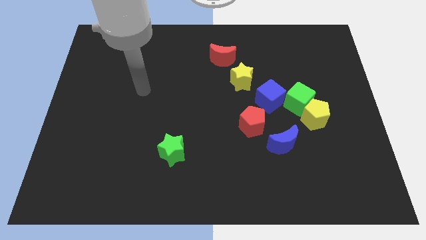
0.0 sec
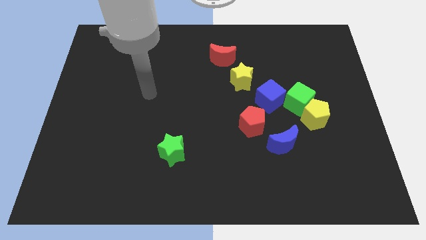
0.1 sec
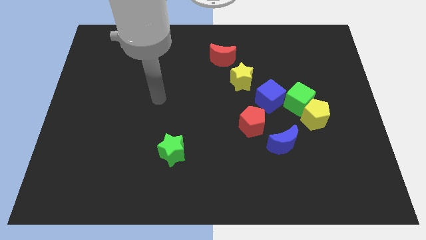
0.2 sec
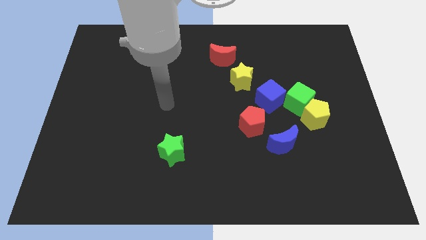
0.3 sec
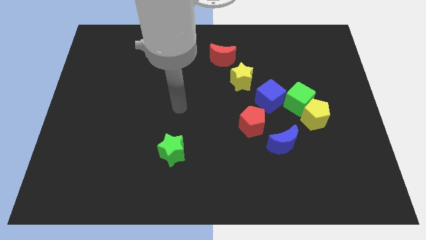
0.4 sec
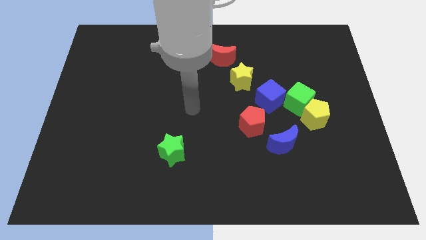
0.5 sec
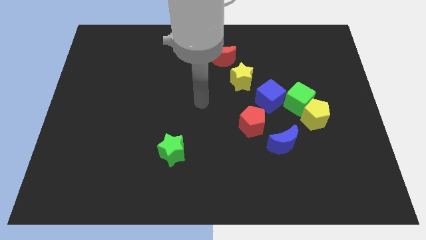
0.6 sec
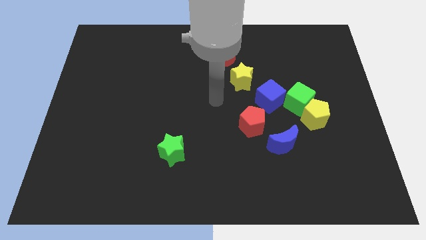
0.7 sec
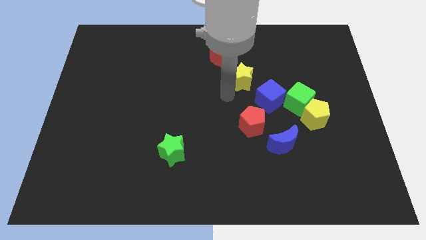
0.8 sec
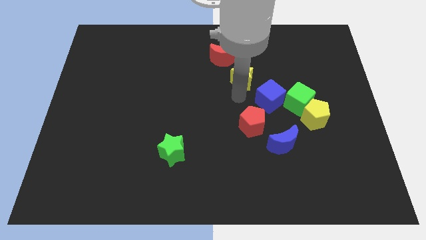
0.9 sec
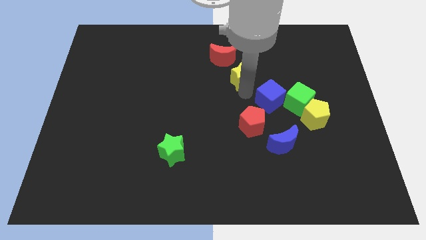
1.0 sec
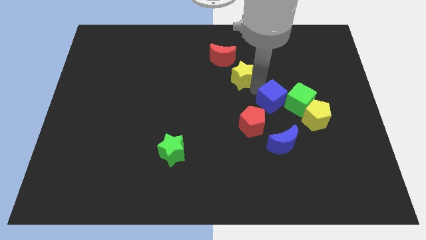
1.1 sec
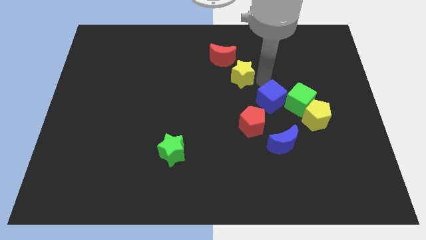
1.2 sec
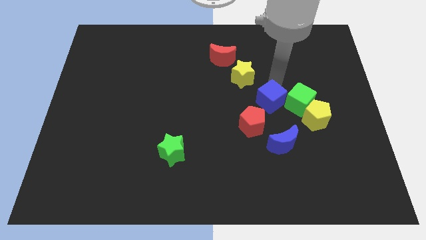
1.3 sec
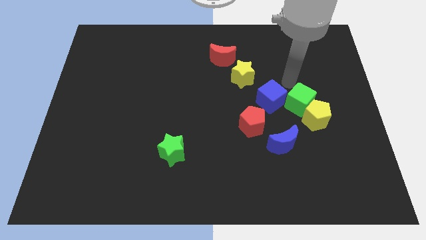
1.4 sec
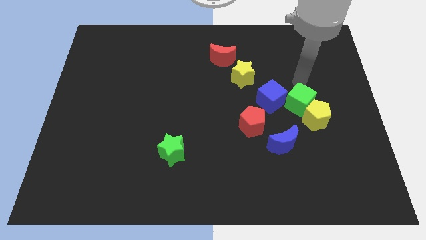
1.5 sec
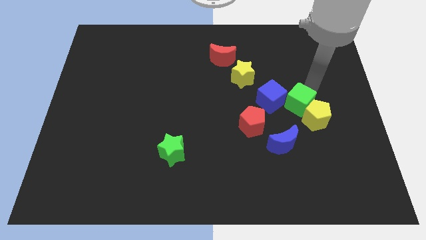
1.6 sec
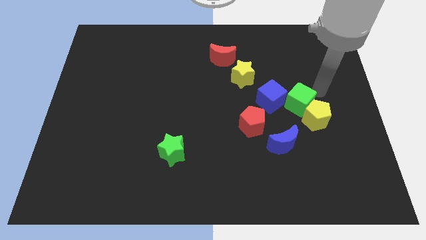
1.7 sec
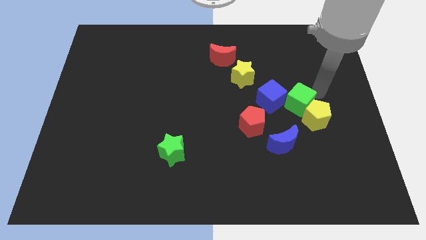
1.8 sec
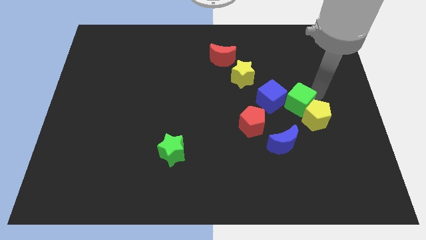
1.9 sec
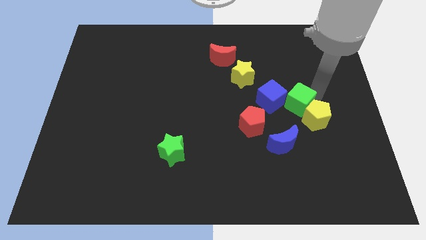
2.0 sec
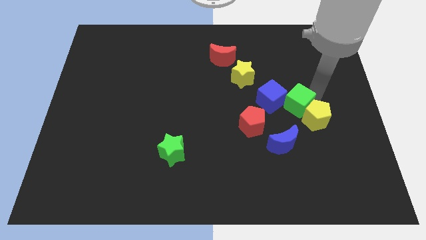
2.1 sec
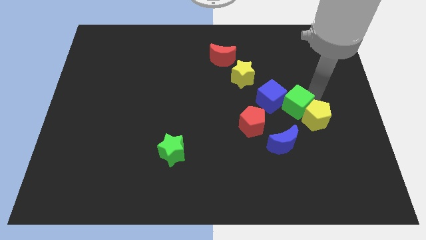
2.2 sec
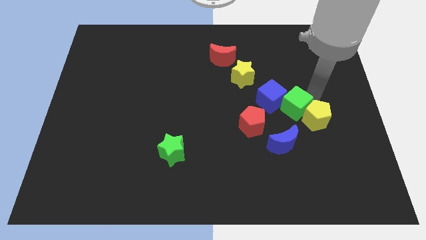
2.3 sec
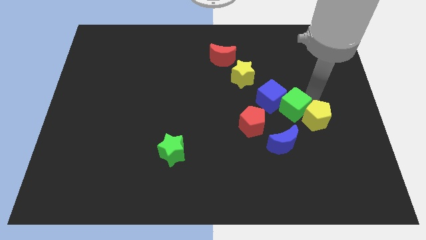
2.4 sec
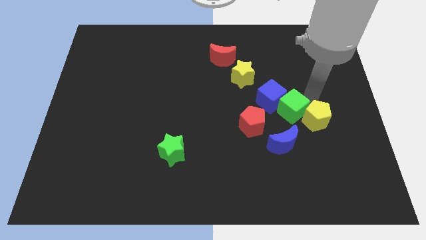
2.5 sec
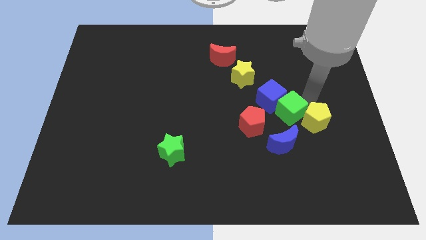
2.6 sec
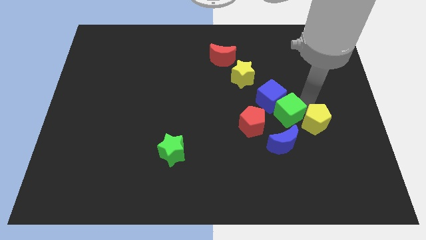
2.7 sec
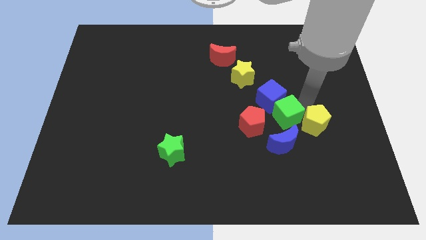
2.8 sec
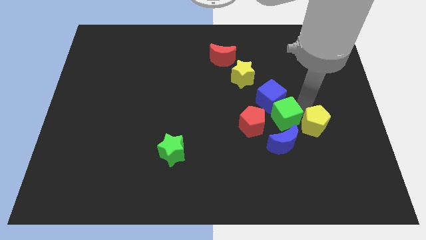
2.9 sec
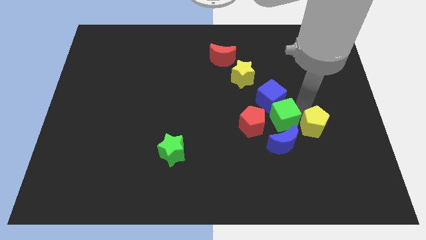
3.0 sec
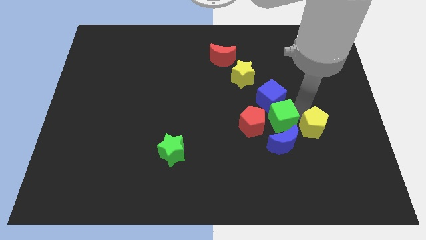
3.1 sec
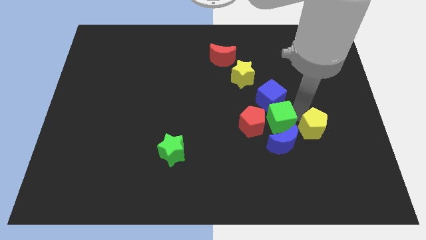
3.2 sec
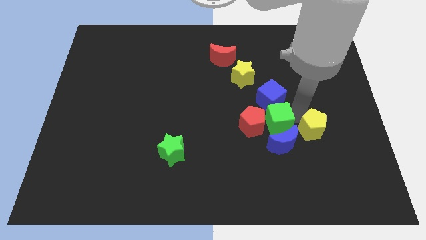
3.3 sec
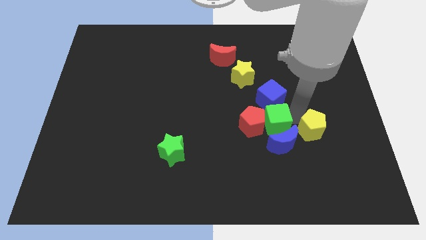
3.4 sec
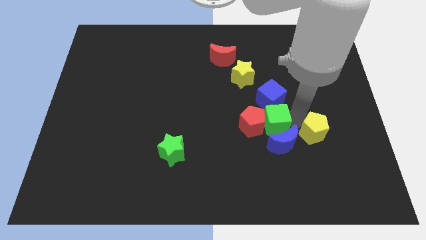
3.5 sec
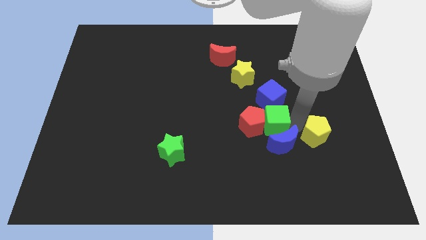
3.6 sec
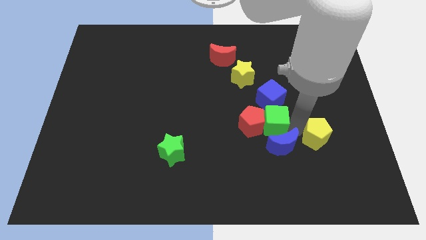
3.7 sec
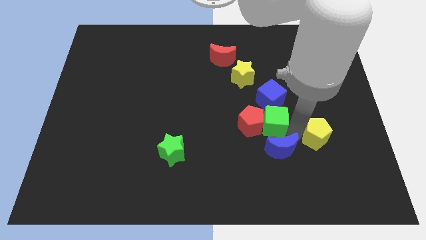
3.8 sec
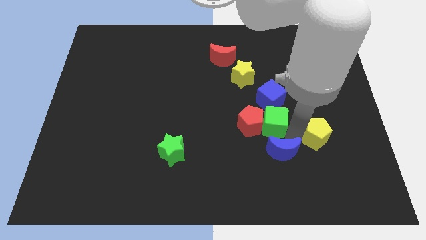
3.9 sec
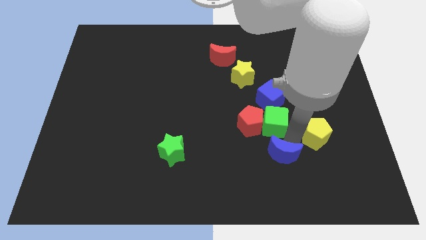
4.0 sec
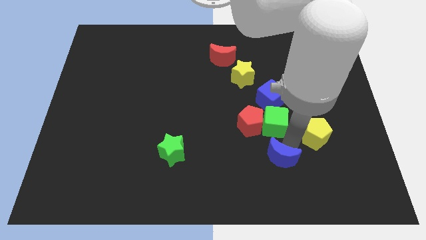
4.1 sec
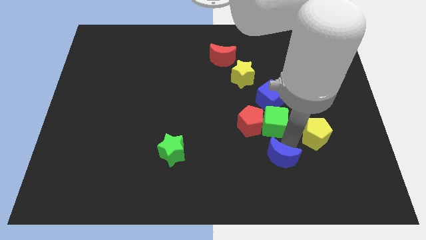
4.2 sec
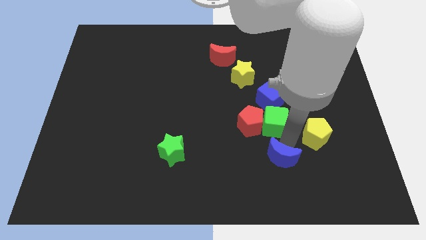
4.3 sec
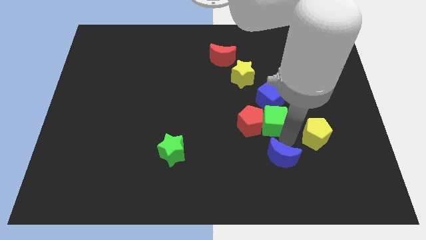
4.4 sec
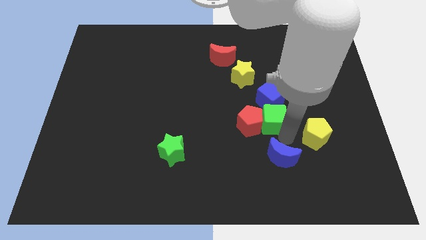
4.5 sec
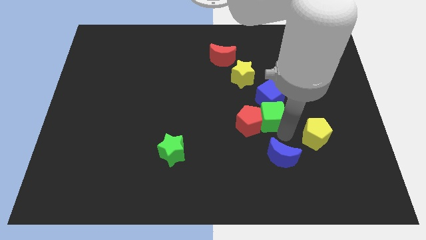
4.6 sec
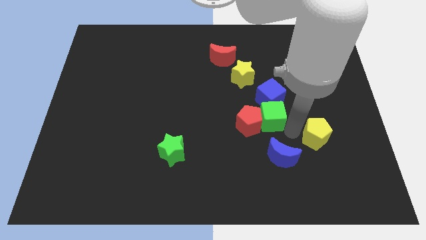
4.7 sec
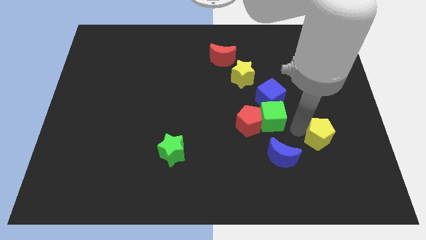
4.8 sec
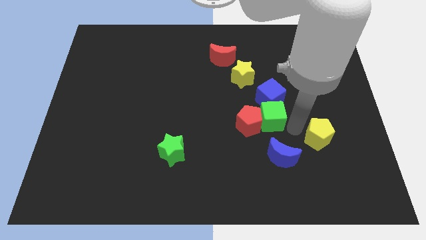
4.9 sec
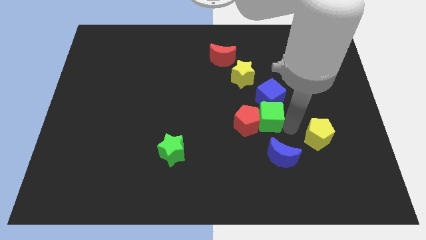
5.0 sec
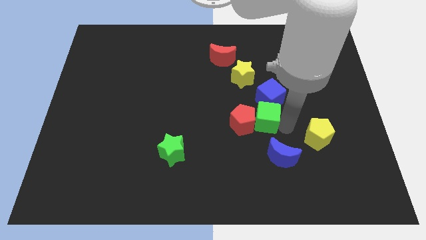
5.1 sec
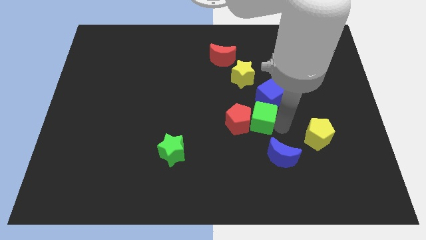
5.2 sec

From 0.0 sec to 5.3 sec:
slide the green cube to the middle
